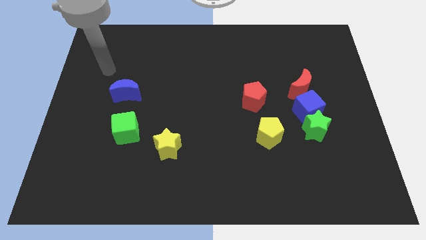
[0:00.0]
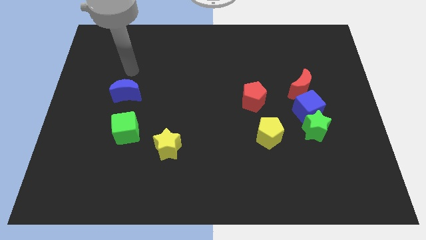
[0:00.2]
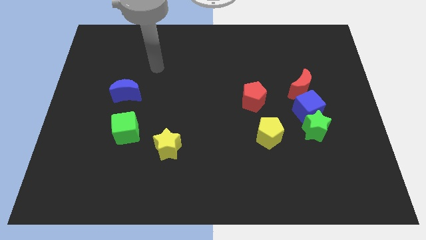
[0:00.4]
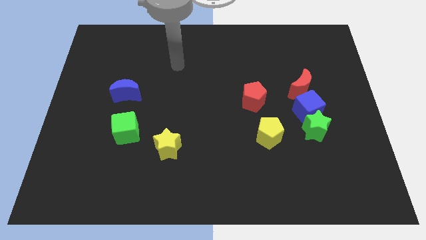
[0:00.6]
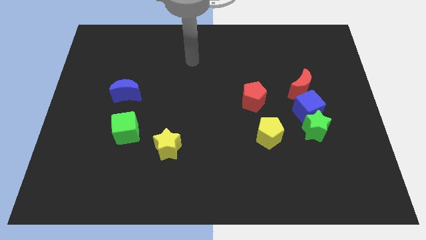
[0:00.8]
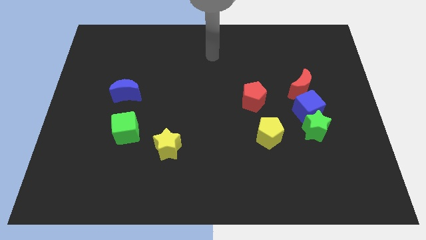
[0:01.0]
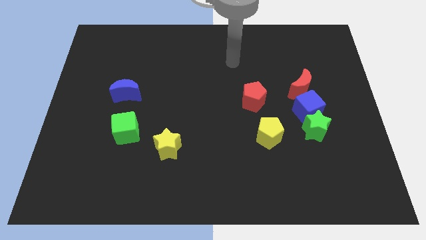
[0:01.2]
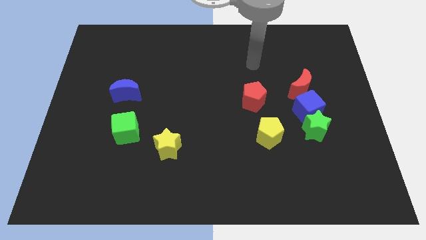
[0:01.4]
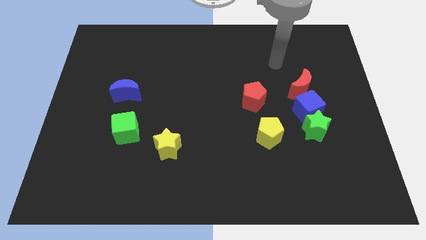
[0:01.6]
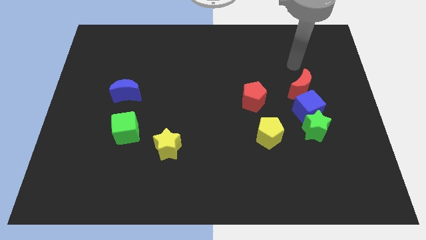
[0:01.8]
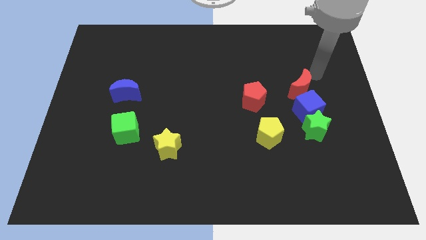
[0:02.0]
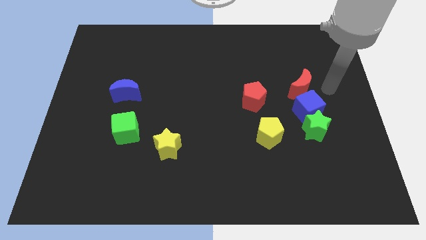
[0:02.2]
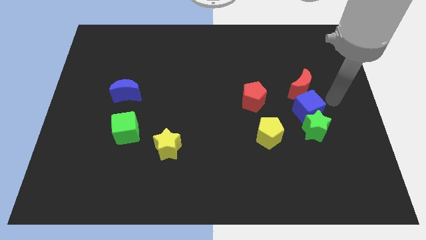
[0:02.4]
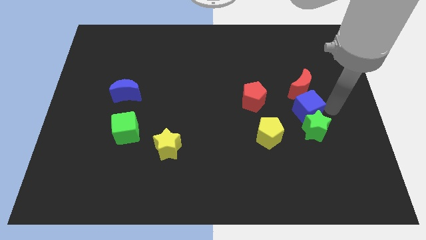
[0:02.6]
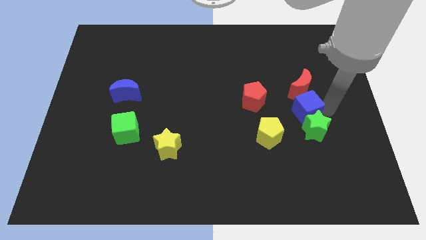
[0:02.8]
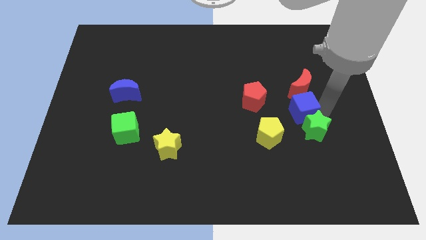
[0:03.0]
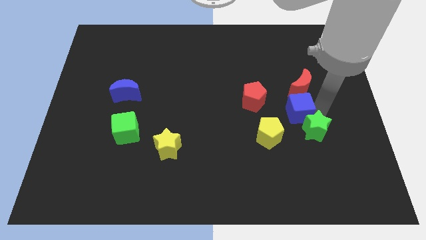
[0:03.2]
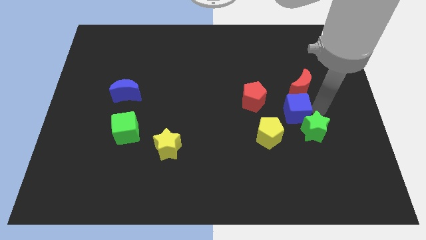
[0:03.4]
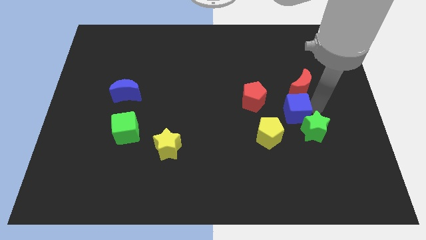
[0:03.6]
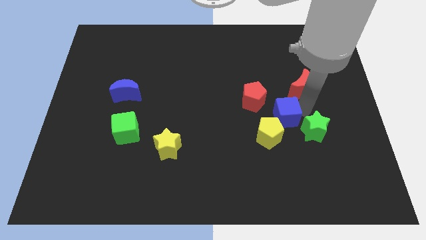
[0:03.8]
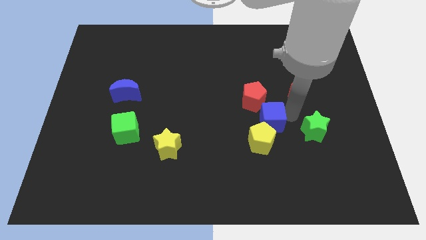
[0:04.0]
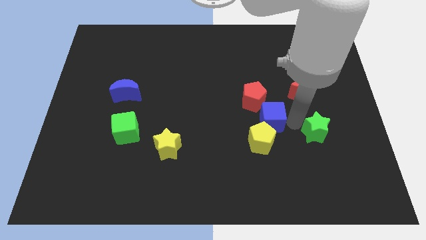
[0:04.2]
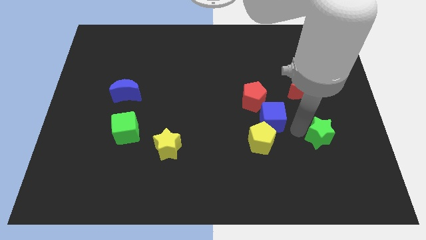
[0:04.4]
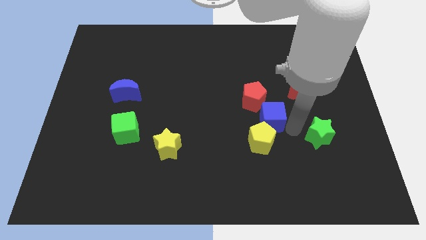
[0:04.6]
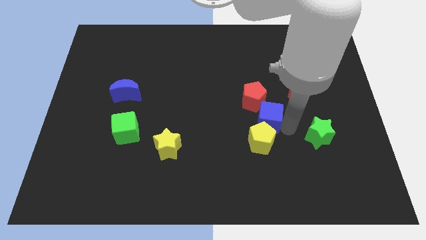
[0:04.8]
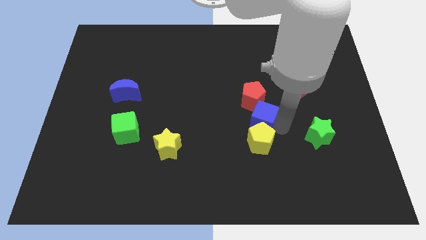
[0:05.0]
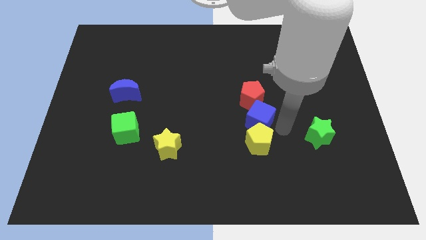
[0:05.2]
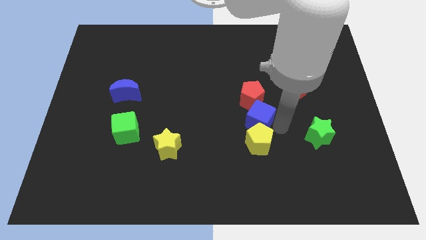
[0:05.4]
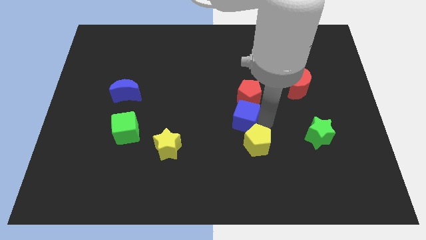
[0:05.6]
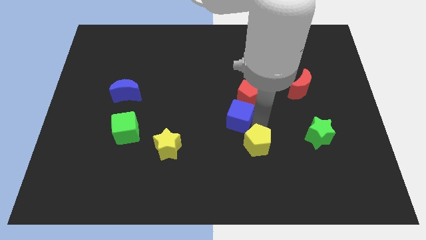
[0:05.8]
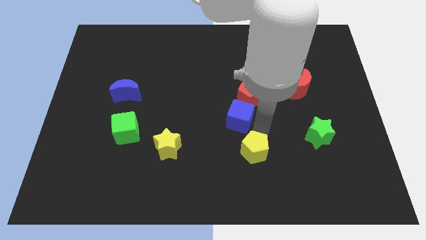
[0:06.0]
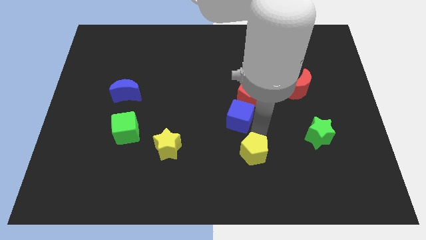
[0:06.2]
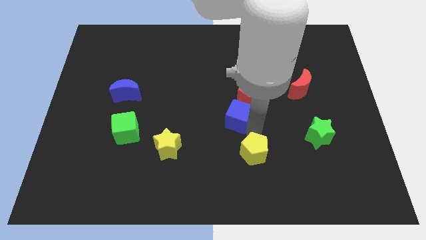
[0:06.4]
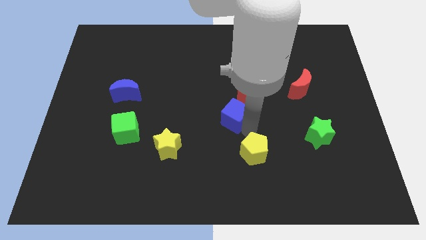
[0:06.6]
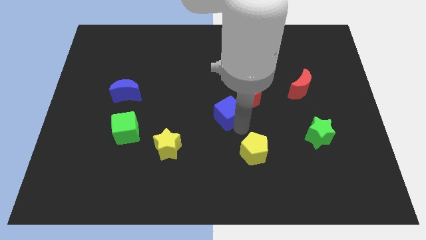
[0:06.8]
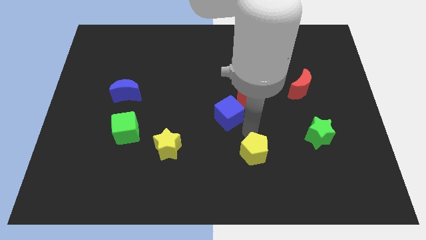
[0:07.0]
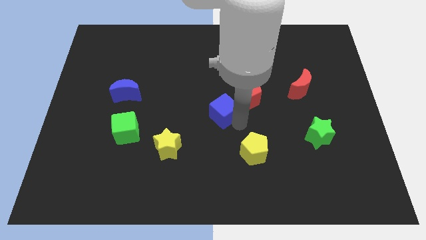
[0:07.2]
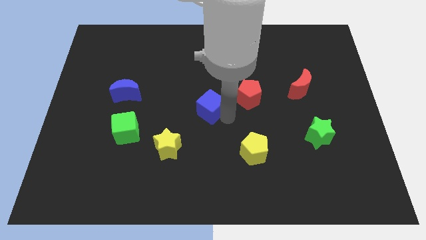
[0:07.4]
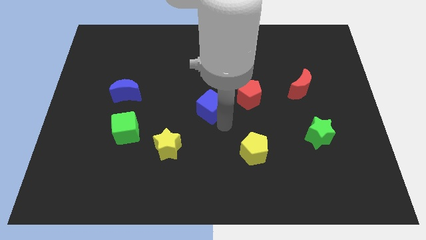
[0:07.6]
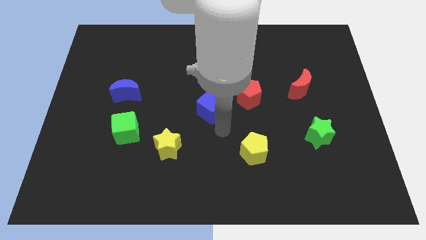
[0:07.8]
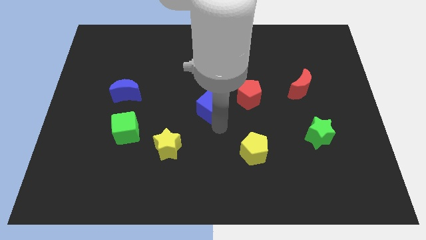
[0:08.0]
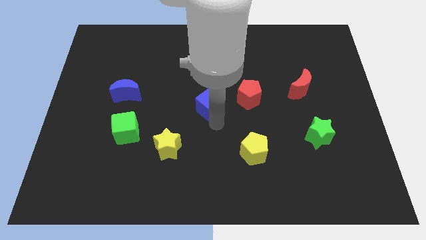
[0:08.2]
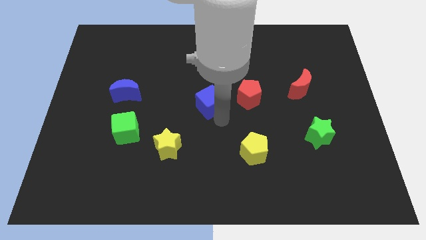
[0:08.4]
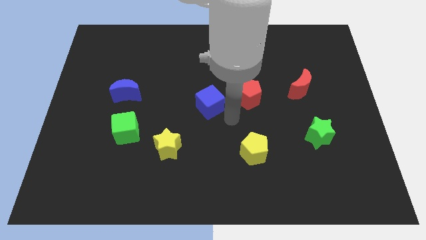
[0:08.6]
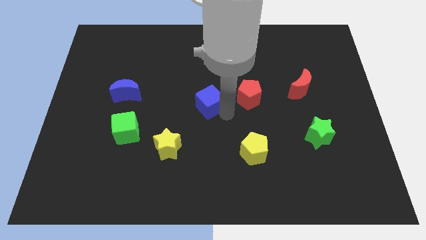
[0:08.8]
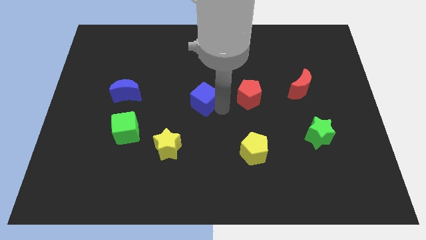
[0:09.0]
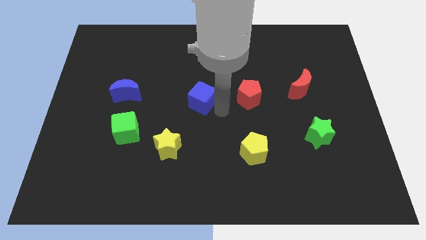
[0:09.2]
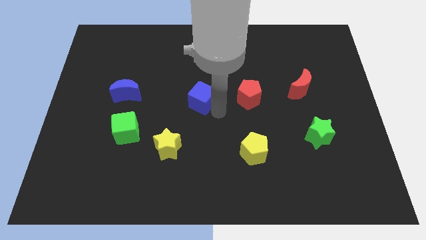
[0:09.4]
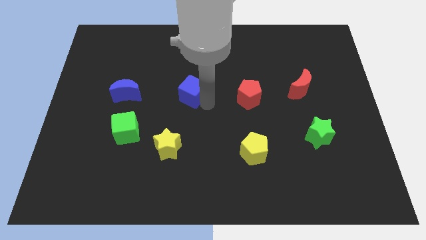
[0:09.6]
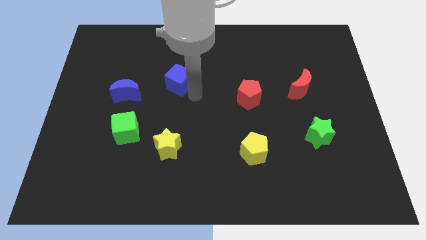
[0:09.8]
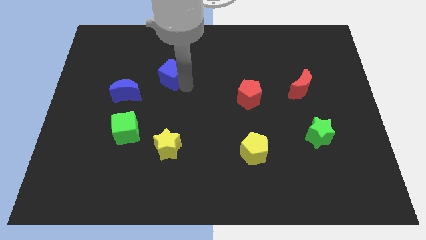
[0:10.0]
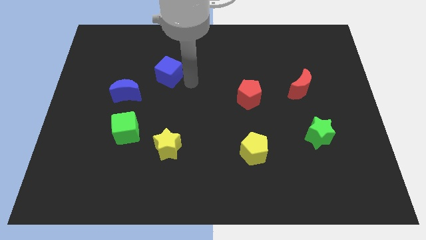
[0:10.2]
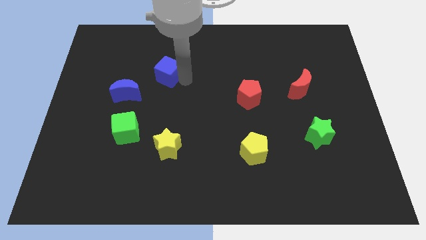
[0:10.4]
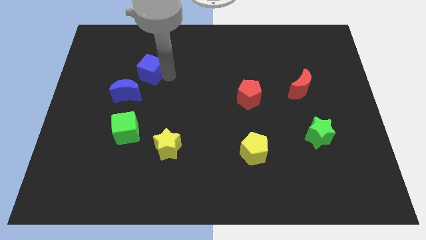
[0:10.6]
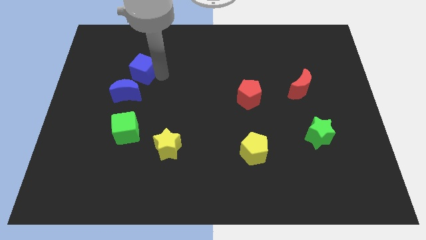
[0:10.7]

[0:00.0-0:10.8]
move the blue cube to the top of the blue moon

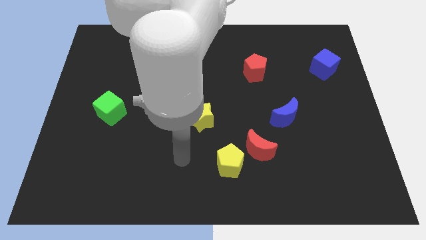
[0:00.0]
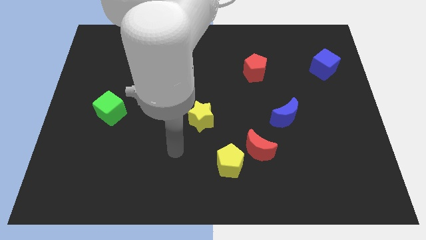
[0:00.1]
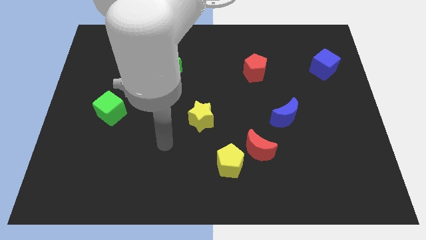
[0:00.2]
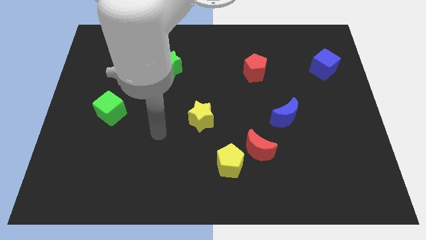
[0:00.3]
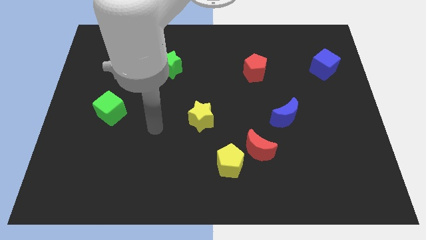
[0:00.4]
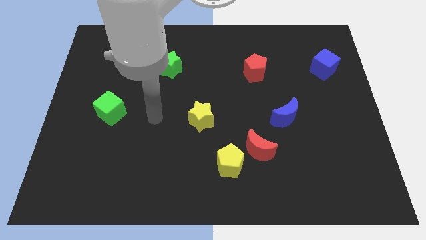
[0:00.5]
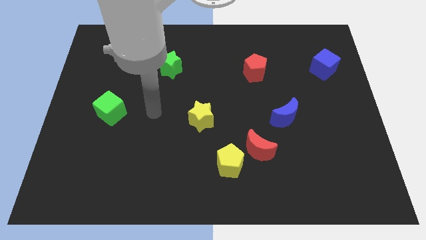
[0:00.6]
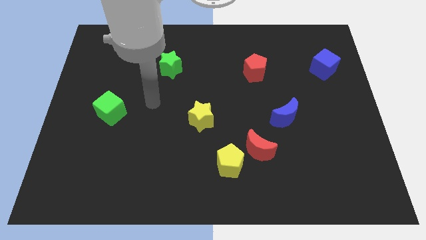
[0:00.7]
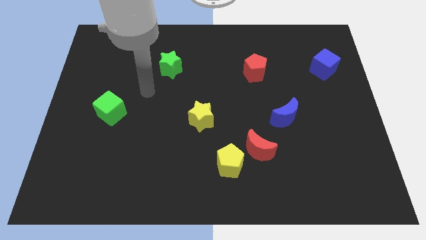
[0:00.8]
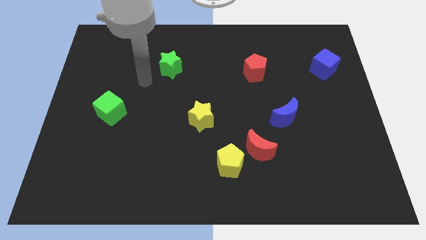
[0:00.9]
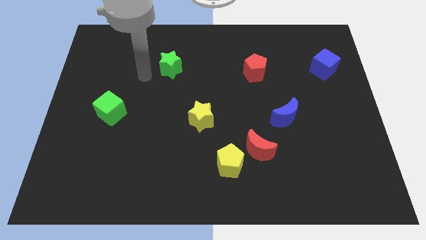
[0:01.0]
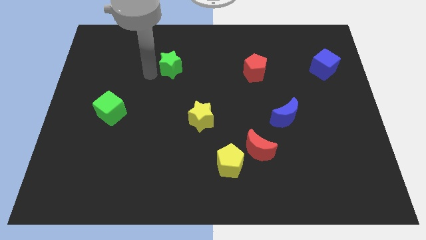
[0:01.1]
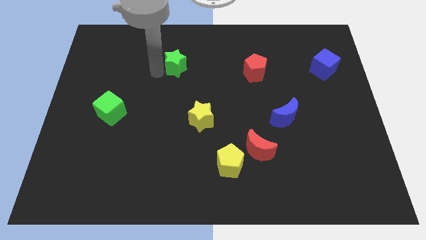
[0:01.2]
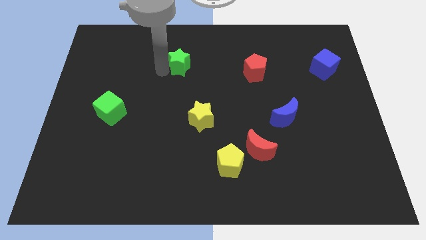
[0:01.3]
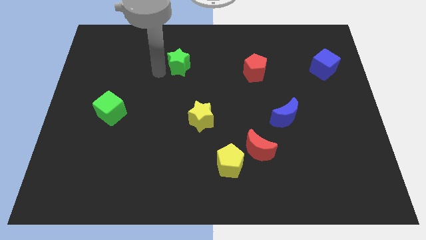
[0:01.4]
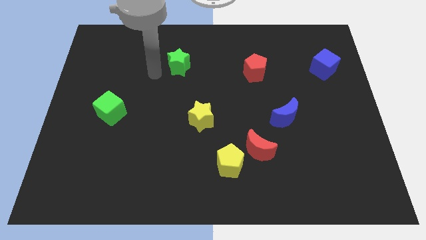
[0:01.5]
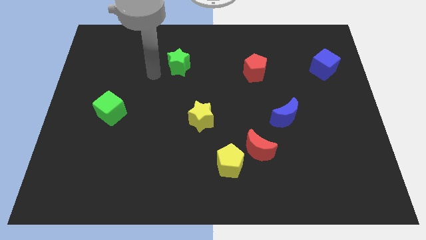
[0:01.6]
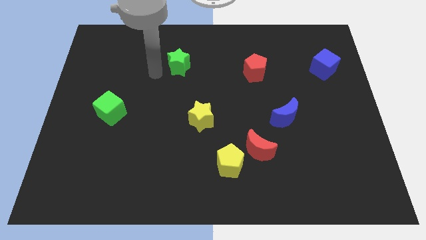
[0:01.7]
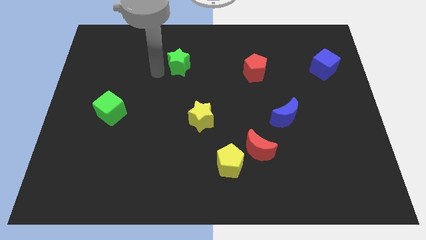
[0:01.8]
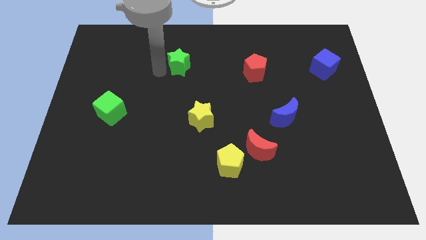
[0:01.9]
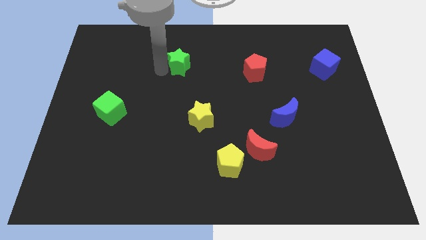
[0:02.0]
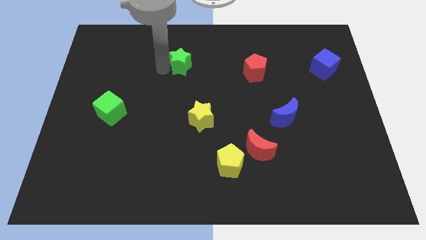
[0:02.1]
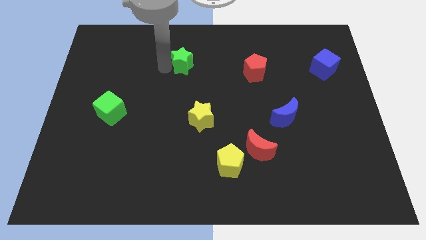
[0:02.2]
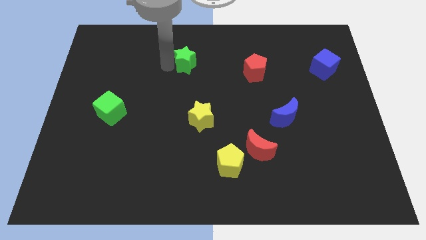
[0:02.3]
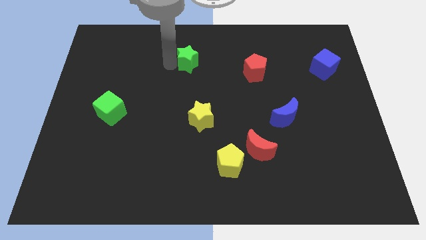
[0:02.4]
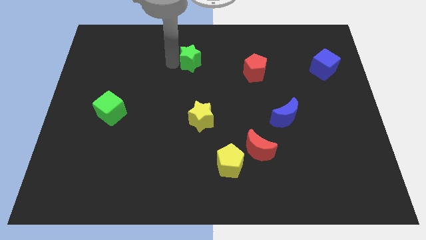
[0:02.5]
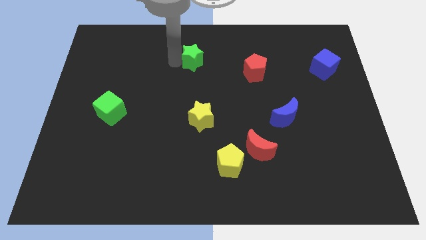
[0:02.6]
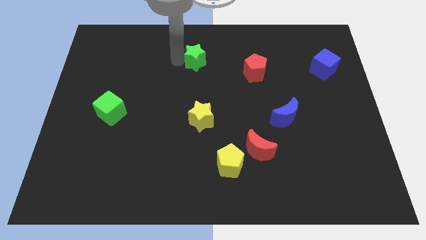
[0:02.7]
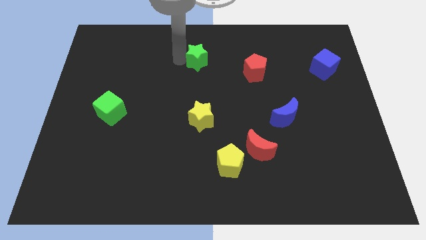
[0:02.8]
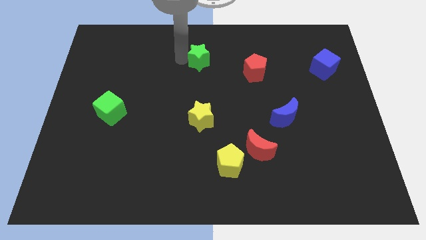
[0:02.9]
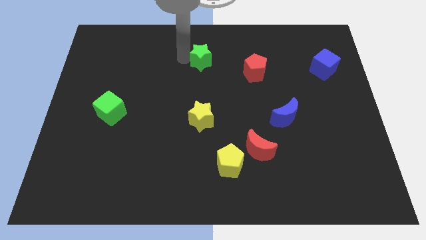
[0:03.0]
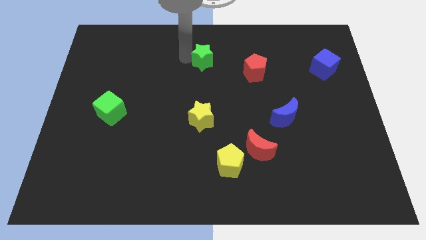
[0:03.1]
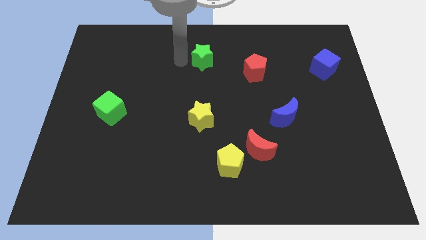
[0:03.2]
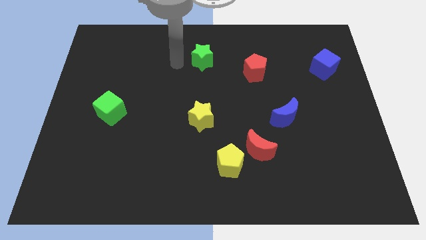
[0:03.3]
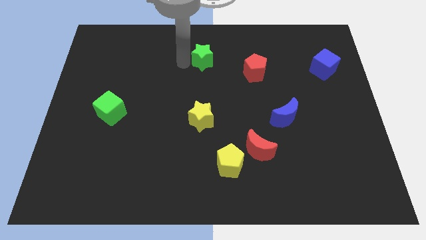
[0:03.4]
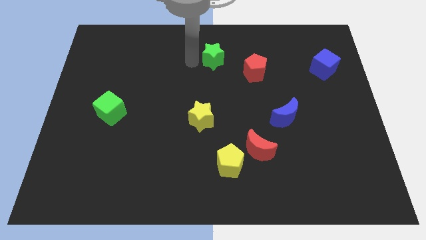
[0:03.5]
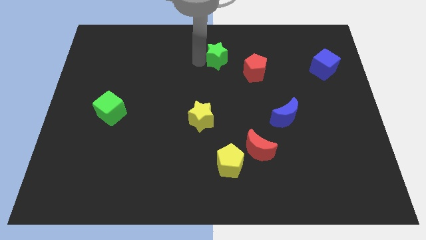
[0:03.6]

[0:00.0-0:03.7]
slide the green star to the top left of the red pentagon
